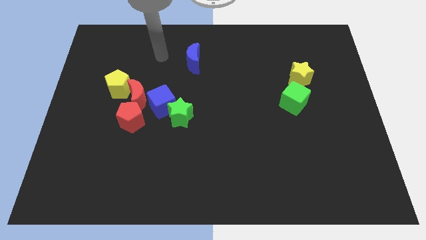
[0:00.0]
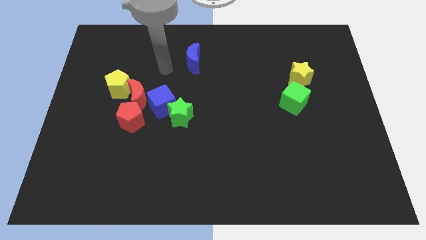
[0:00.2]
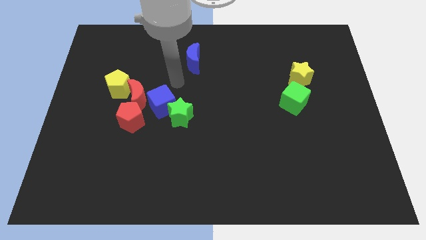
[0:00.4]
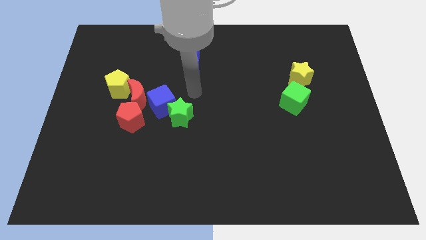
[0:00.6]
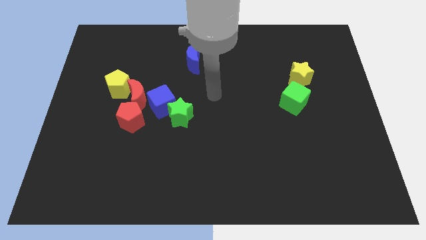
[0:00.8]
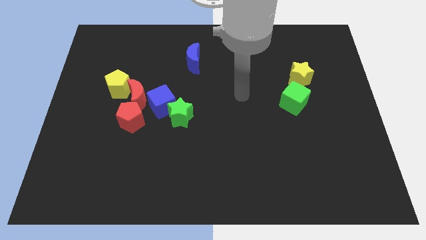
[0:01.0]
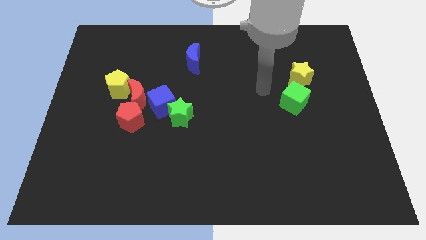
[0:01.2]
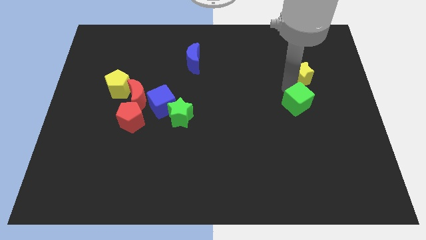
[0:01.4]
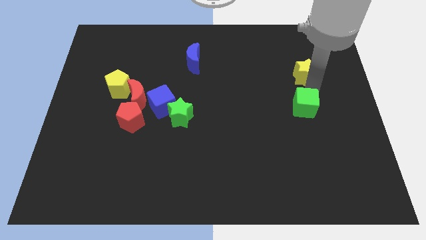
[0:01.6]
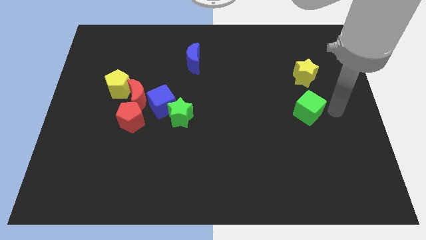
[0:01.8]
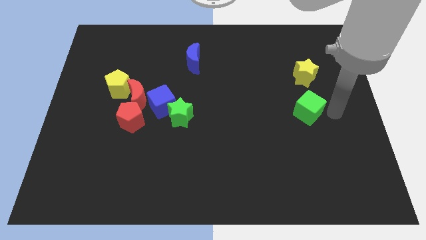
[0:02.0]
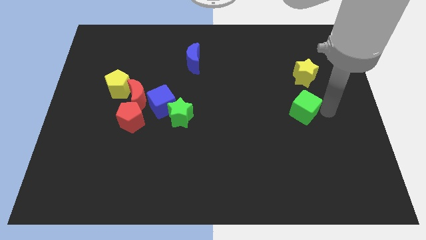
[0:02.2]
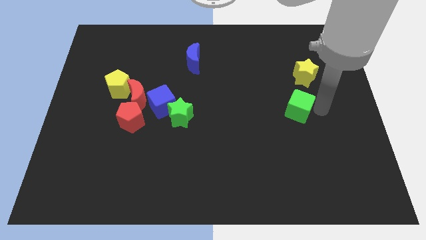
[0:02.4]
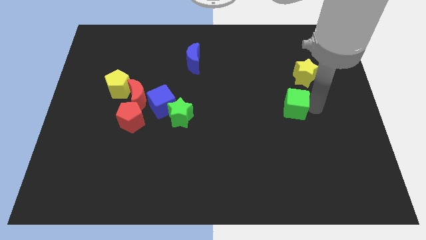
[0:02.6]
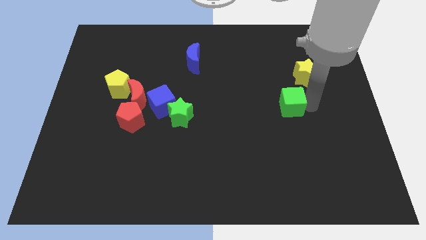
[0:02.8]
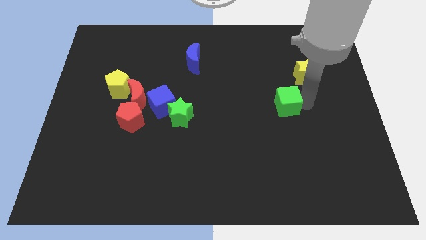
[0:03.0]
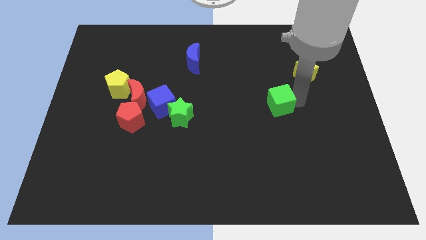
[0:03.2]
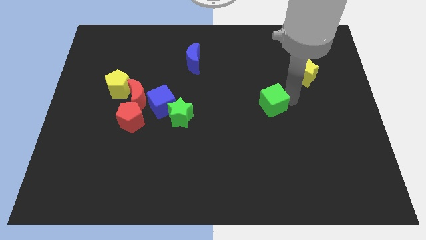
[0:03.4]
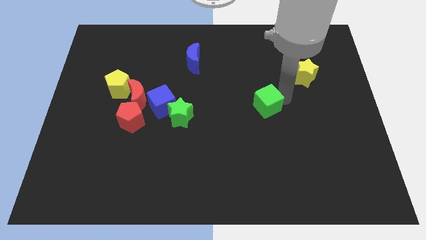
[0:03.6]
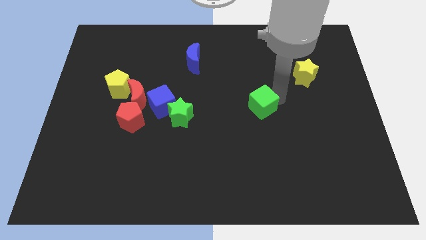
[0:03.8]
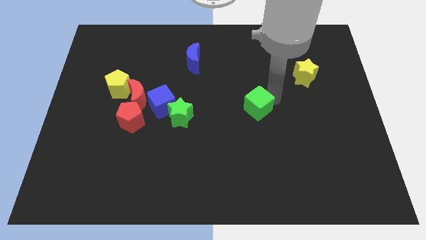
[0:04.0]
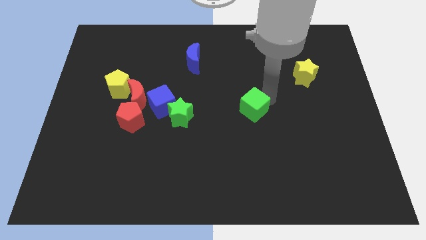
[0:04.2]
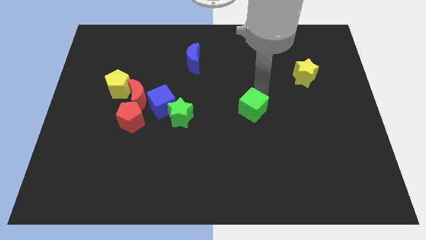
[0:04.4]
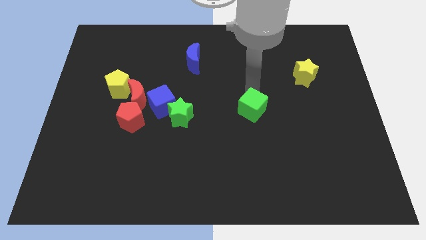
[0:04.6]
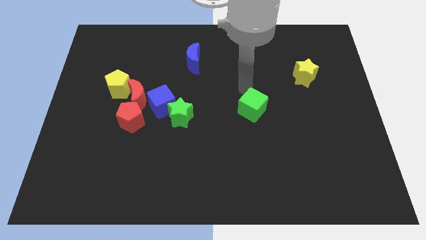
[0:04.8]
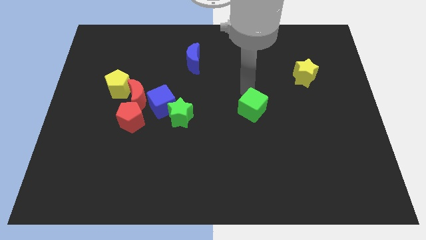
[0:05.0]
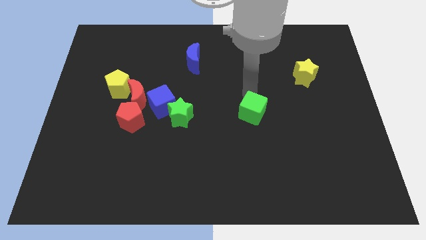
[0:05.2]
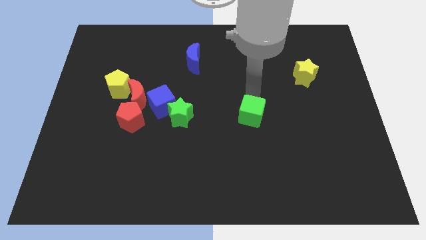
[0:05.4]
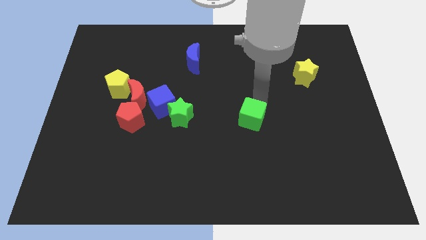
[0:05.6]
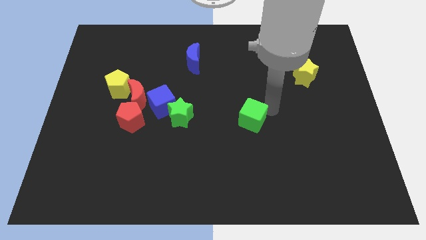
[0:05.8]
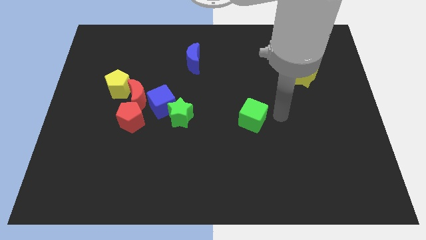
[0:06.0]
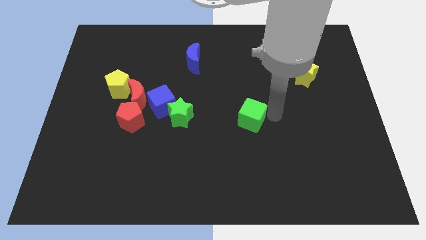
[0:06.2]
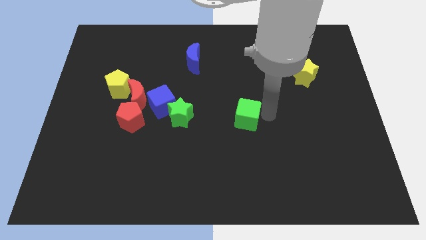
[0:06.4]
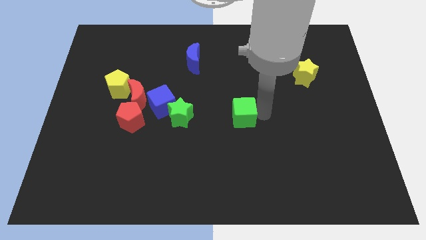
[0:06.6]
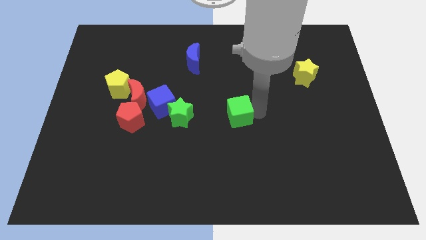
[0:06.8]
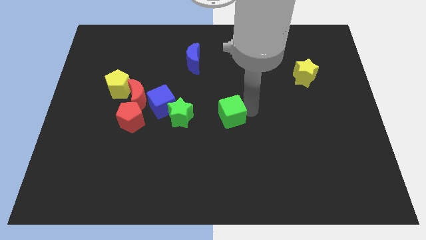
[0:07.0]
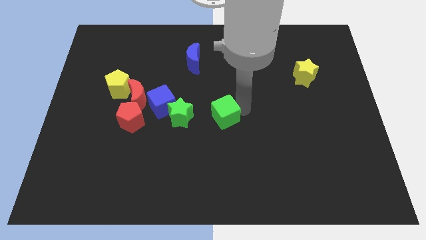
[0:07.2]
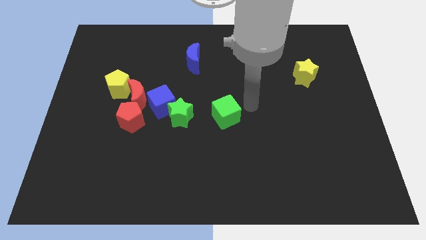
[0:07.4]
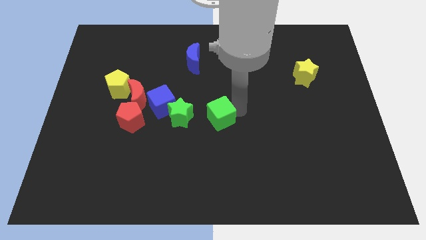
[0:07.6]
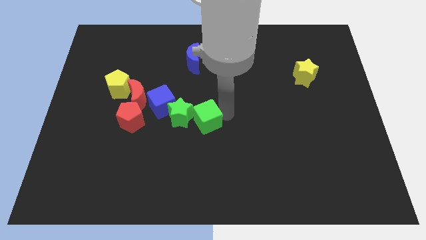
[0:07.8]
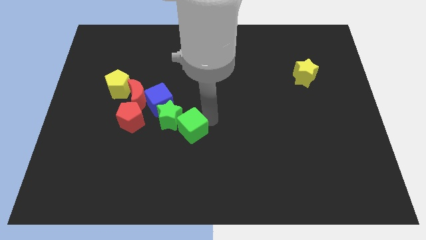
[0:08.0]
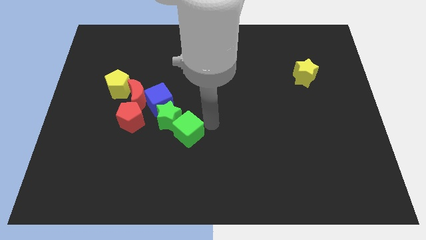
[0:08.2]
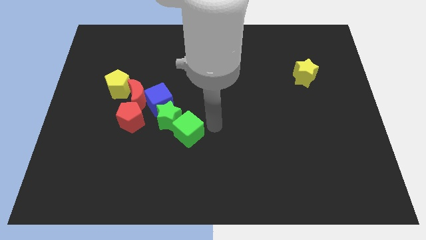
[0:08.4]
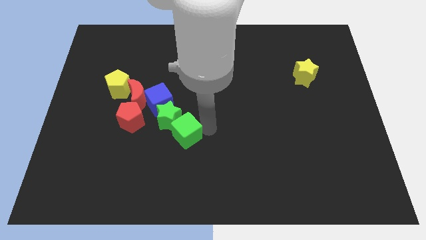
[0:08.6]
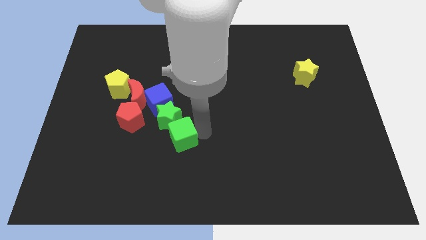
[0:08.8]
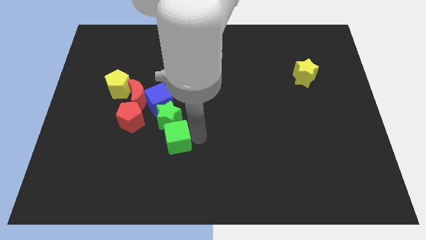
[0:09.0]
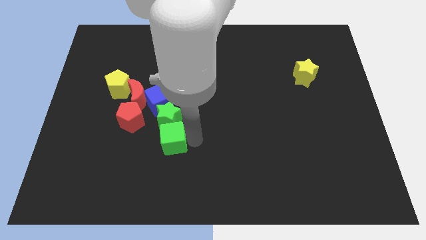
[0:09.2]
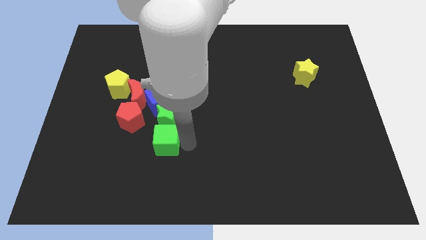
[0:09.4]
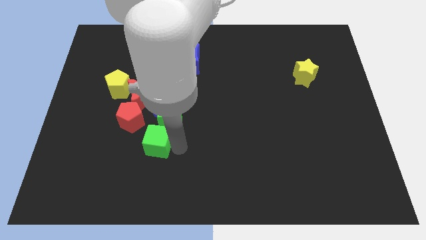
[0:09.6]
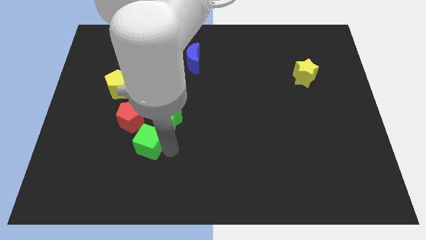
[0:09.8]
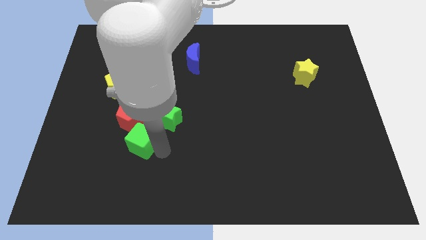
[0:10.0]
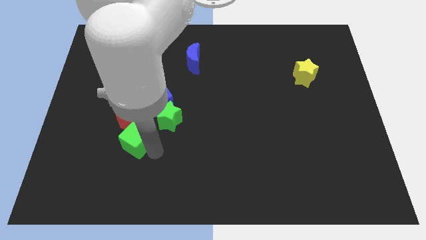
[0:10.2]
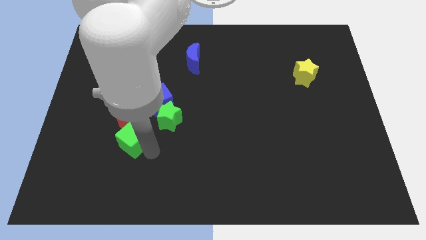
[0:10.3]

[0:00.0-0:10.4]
move the green cube close to the red pentagon

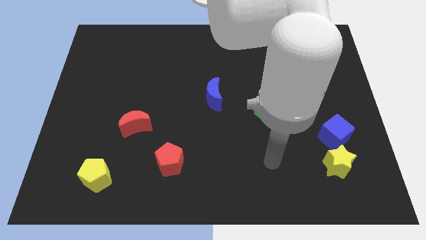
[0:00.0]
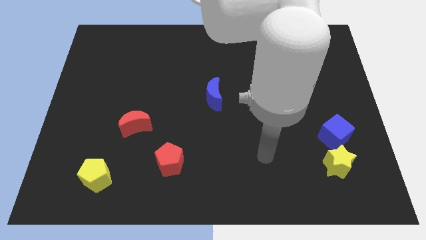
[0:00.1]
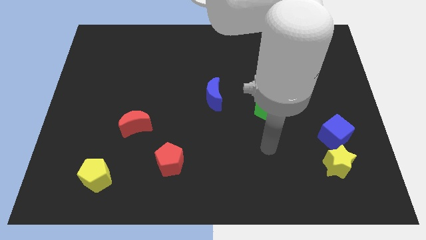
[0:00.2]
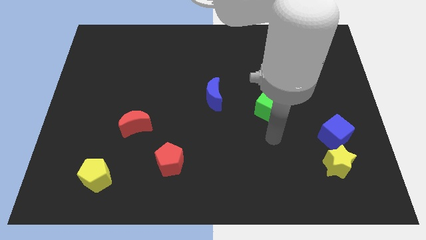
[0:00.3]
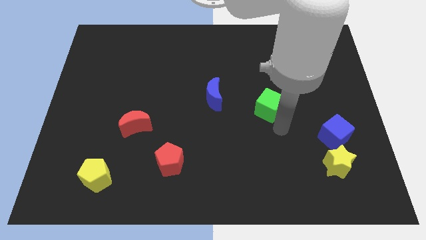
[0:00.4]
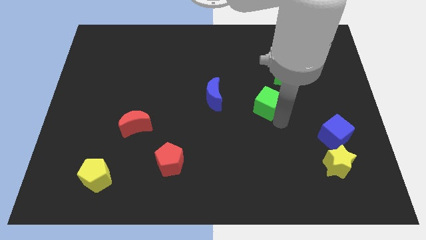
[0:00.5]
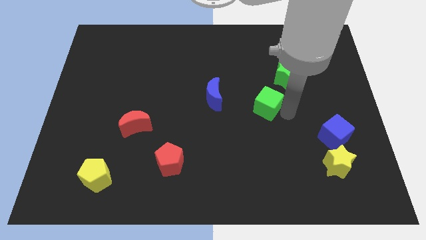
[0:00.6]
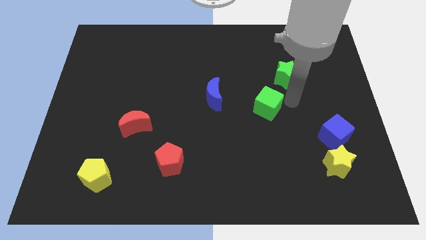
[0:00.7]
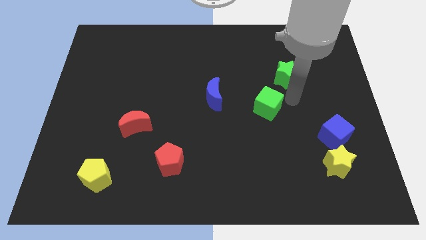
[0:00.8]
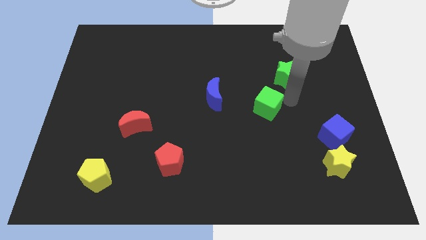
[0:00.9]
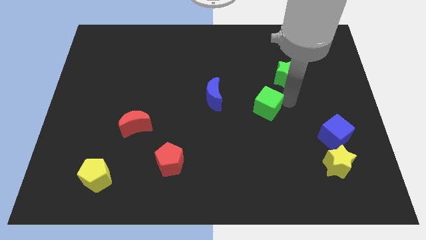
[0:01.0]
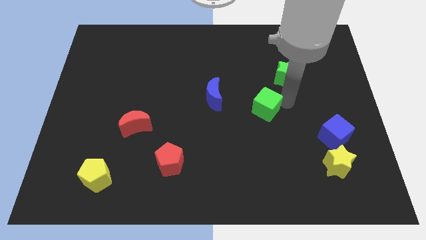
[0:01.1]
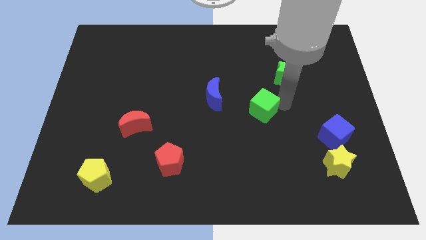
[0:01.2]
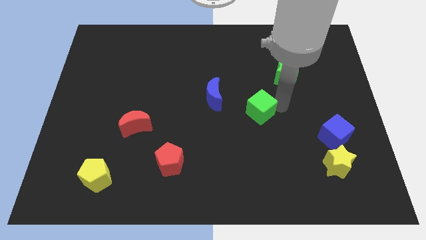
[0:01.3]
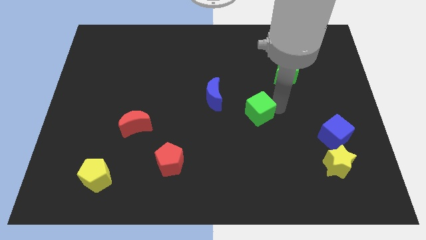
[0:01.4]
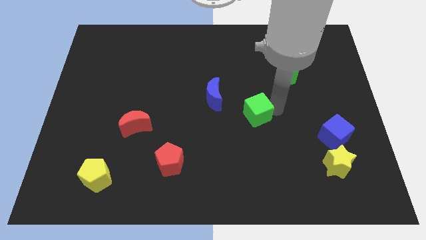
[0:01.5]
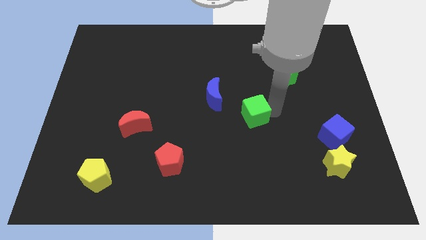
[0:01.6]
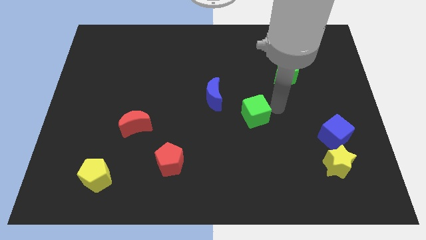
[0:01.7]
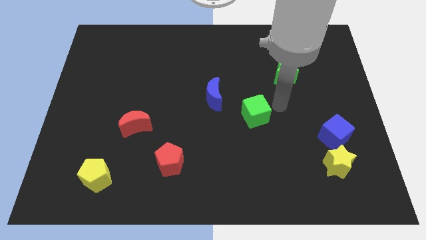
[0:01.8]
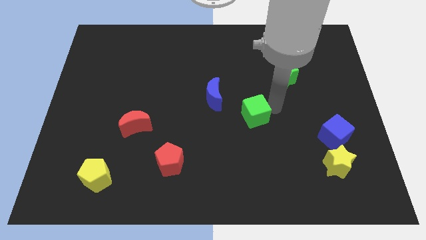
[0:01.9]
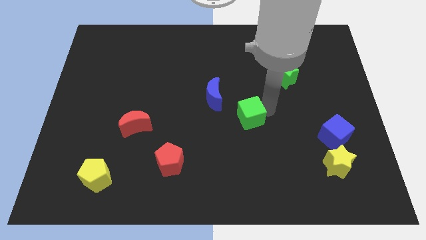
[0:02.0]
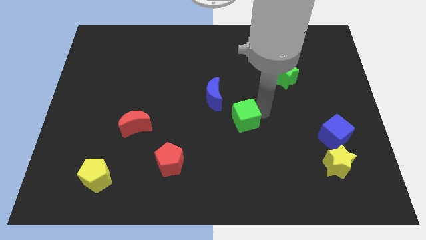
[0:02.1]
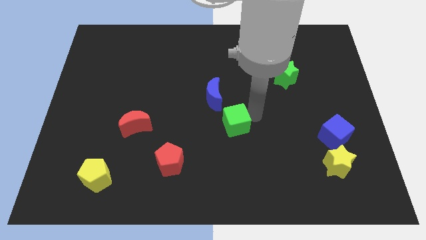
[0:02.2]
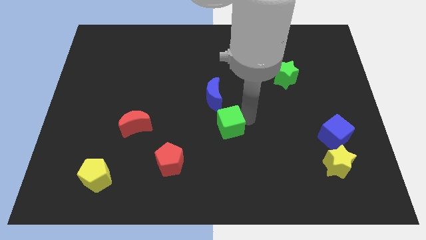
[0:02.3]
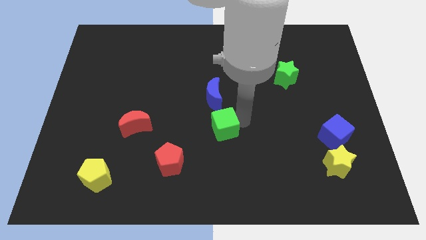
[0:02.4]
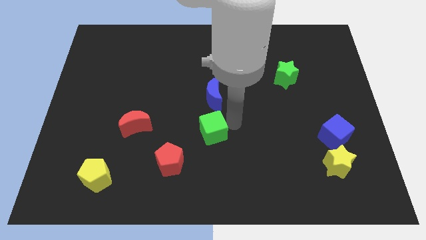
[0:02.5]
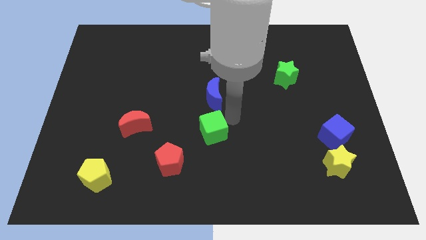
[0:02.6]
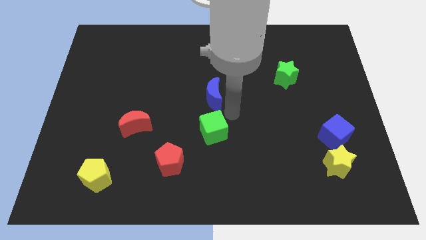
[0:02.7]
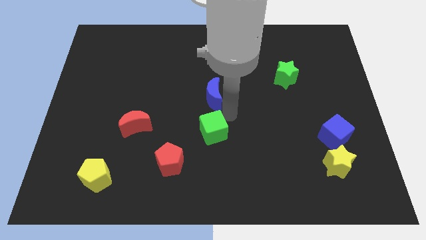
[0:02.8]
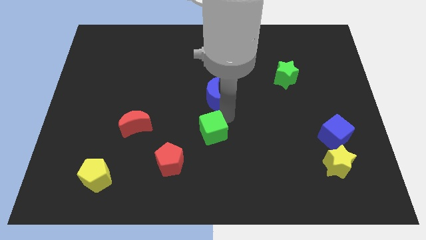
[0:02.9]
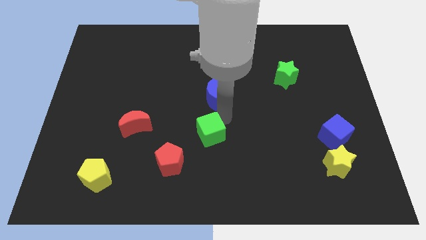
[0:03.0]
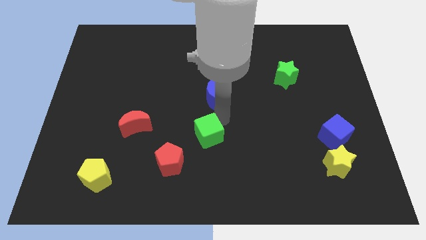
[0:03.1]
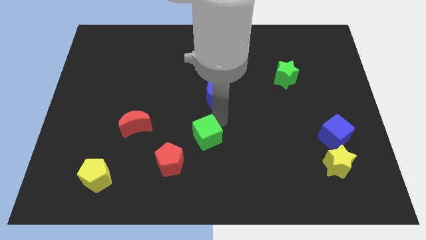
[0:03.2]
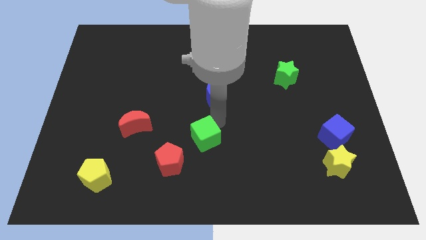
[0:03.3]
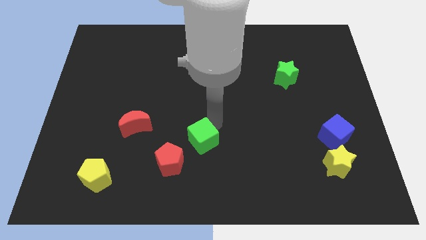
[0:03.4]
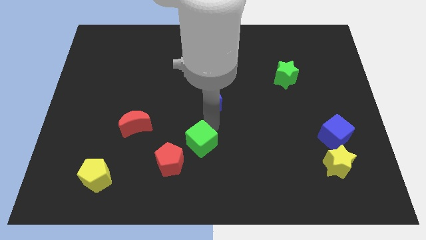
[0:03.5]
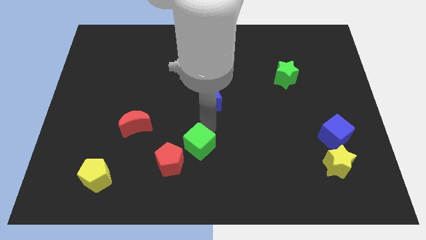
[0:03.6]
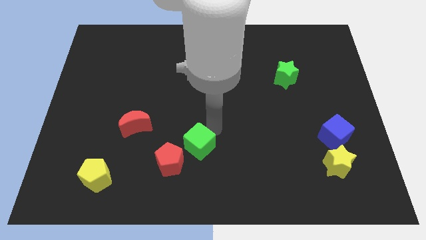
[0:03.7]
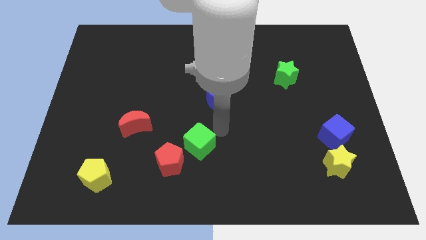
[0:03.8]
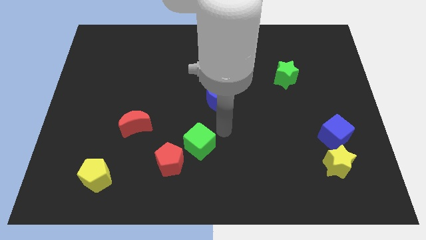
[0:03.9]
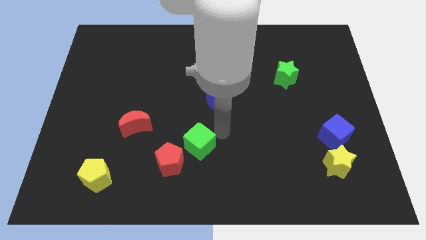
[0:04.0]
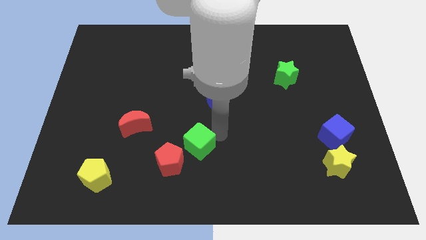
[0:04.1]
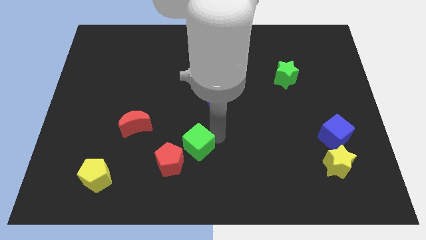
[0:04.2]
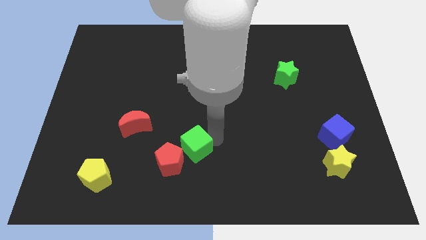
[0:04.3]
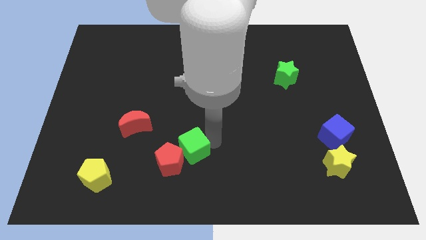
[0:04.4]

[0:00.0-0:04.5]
move the green cube next to the red pentagon
